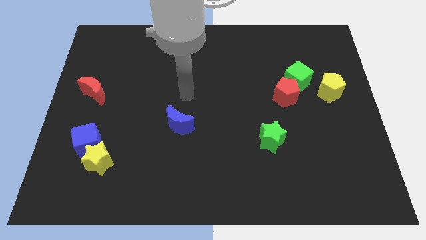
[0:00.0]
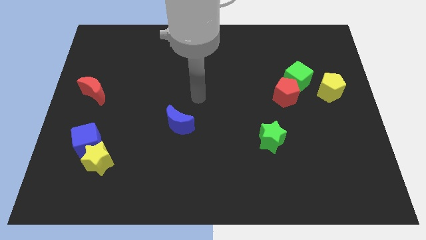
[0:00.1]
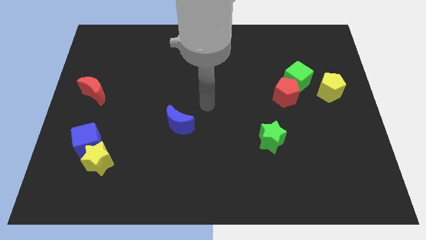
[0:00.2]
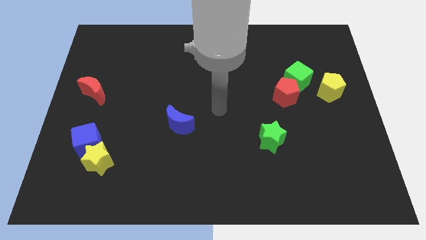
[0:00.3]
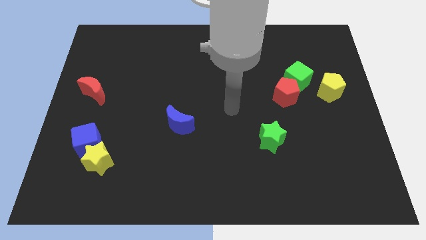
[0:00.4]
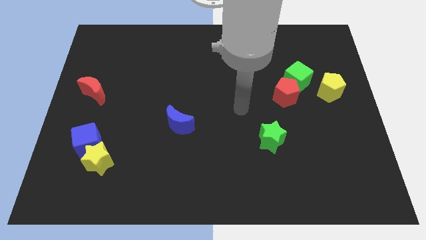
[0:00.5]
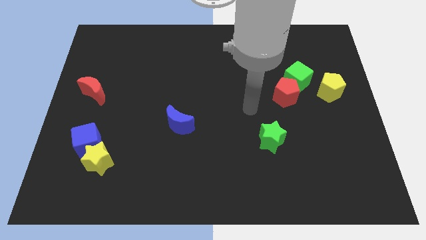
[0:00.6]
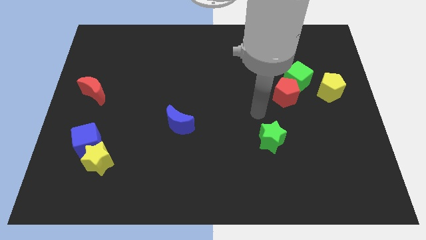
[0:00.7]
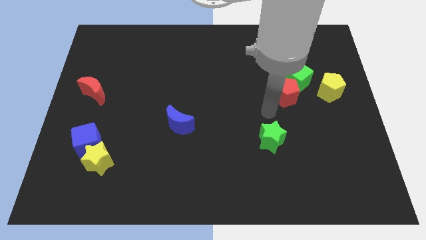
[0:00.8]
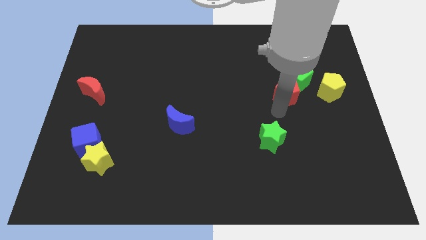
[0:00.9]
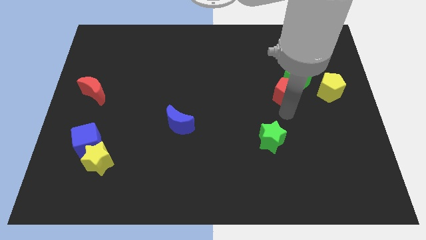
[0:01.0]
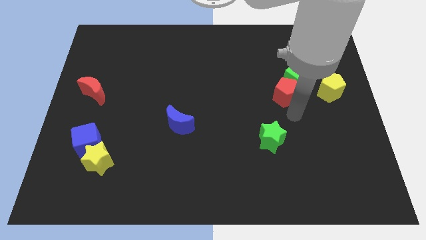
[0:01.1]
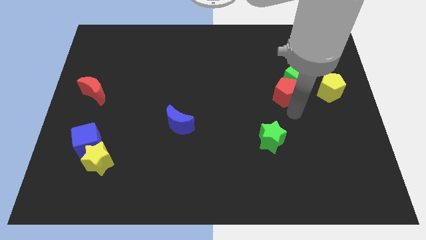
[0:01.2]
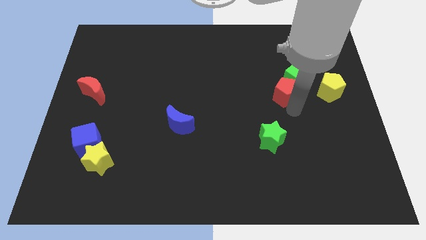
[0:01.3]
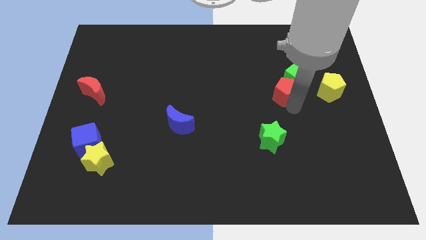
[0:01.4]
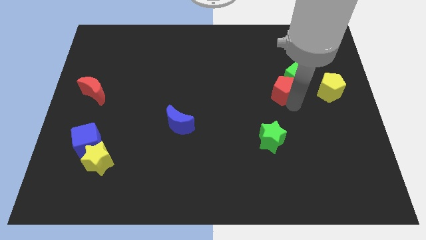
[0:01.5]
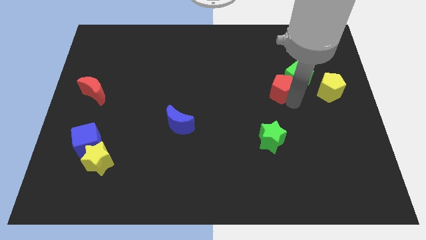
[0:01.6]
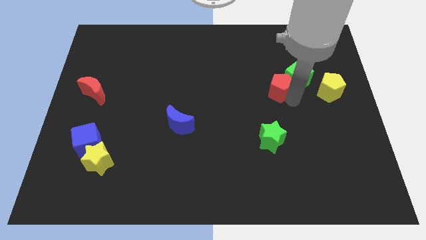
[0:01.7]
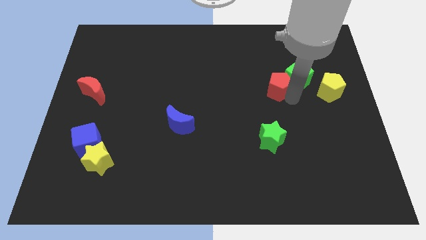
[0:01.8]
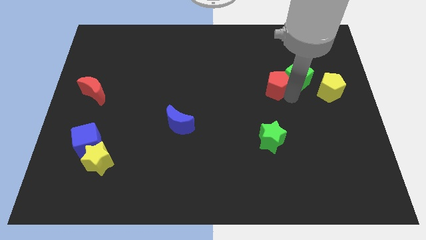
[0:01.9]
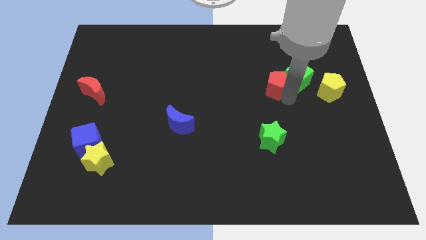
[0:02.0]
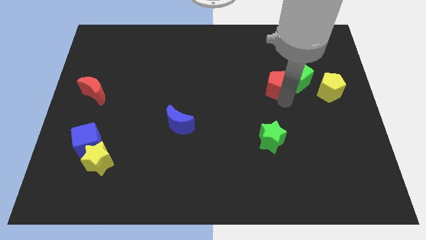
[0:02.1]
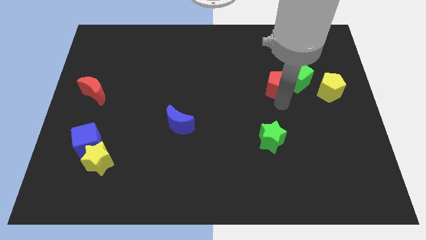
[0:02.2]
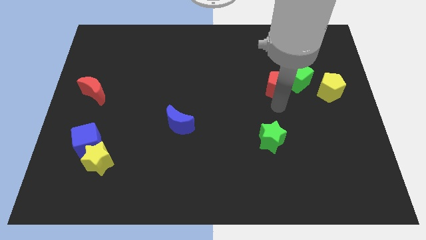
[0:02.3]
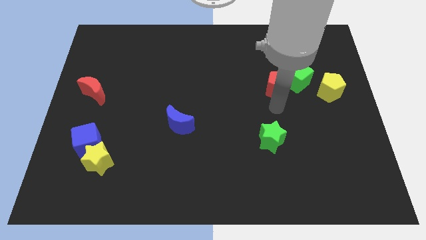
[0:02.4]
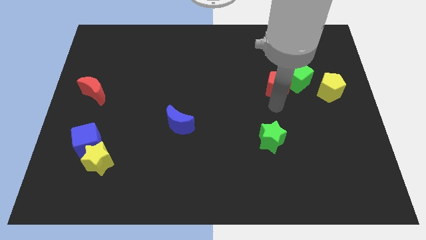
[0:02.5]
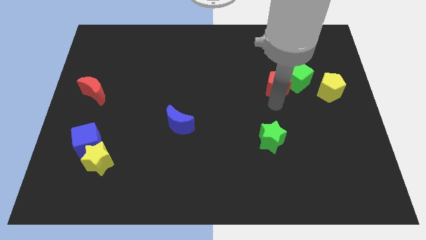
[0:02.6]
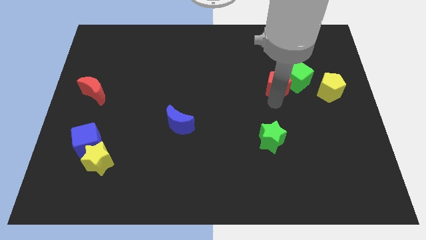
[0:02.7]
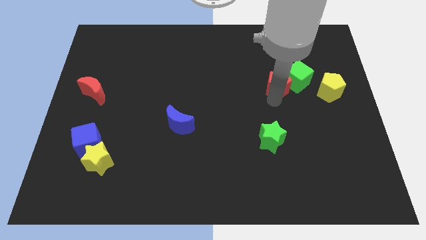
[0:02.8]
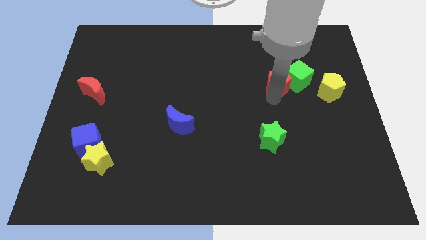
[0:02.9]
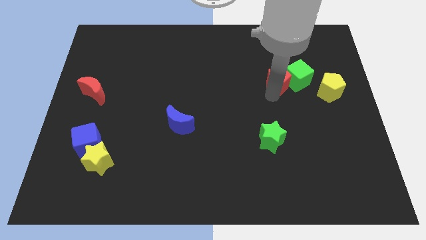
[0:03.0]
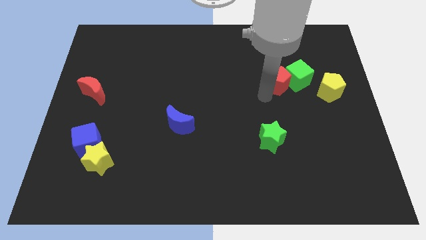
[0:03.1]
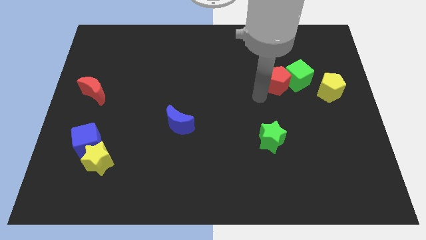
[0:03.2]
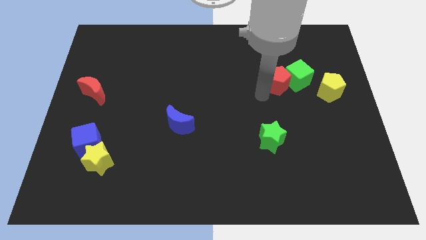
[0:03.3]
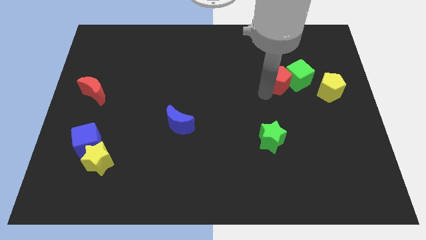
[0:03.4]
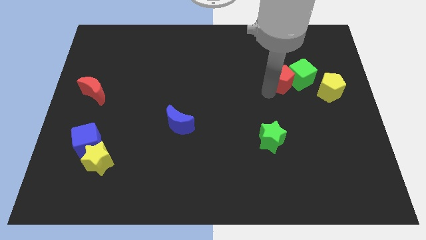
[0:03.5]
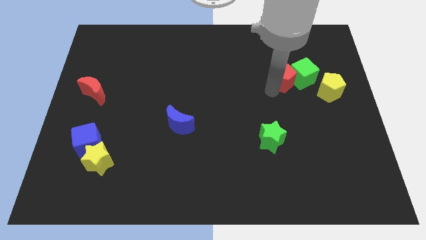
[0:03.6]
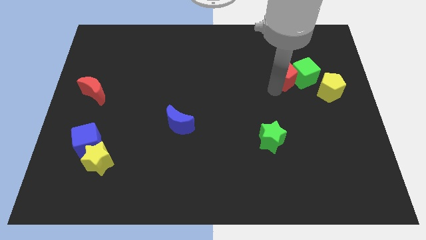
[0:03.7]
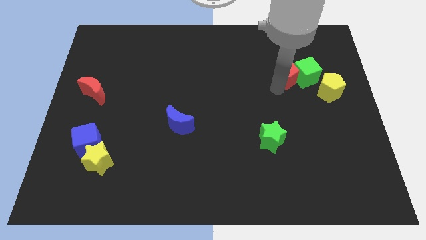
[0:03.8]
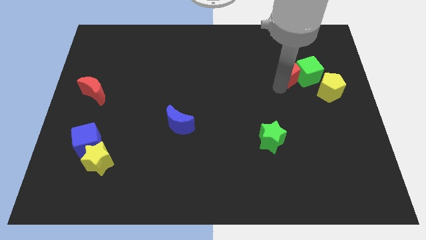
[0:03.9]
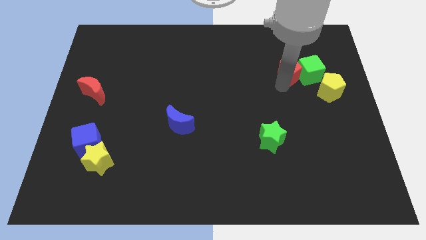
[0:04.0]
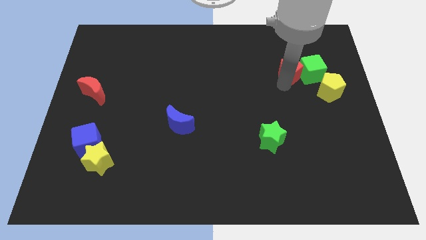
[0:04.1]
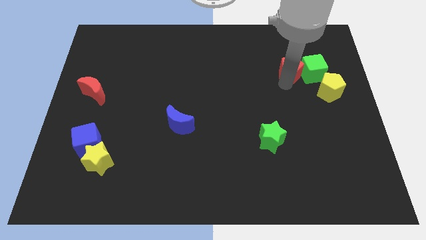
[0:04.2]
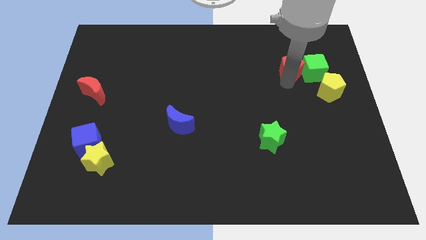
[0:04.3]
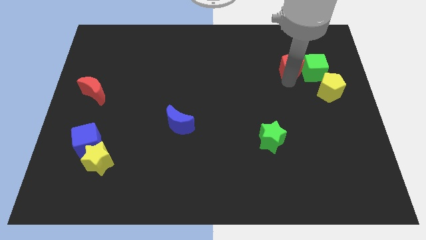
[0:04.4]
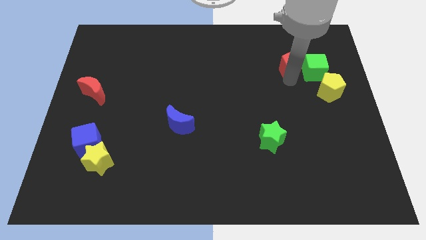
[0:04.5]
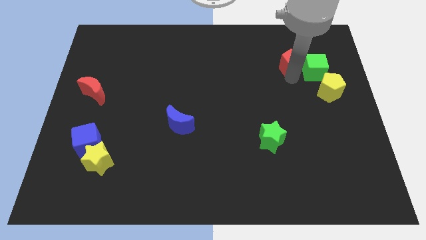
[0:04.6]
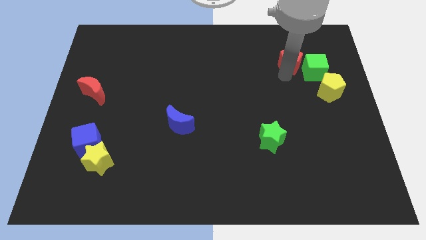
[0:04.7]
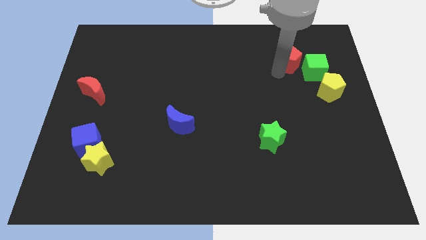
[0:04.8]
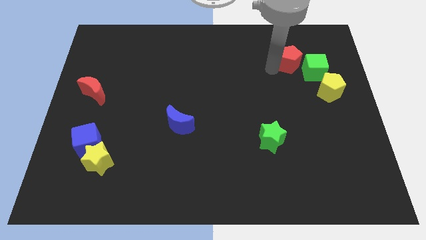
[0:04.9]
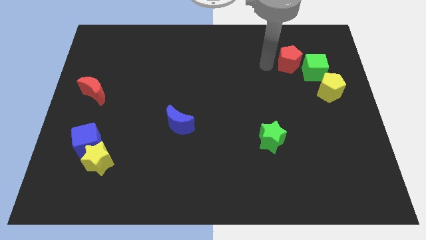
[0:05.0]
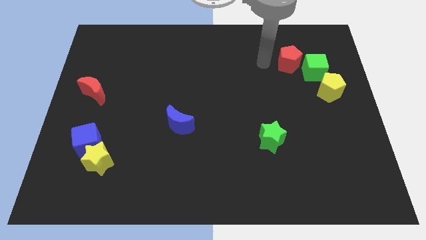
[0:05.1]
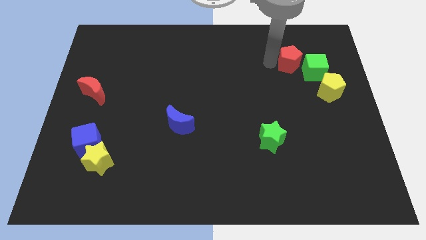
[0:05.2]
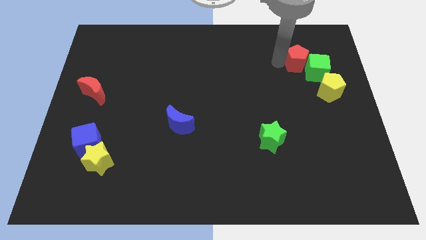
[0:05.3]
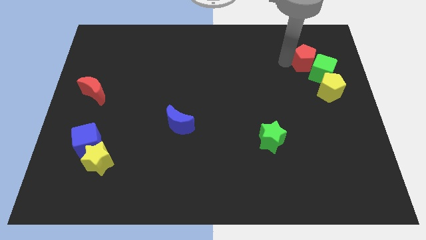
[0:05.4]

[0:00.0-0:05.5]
slide the red pentagon above the yellow pentagon

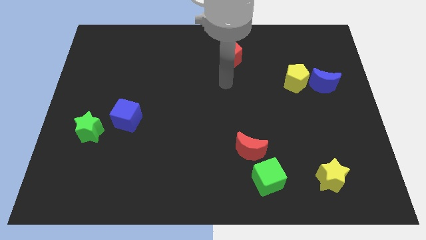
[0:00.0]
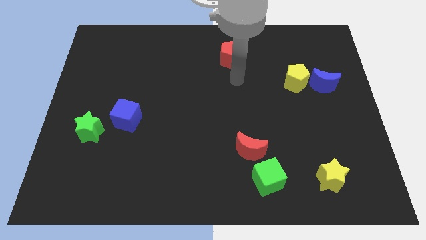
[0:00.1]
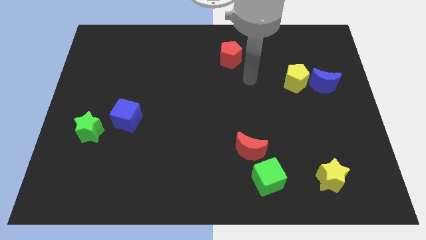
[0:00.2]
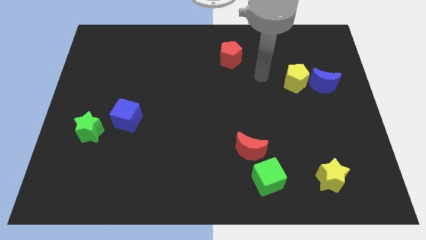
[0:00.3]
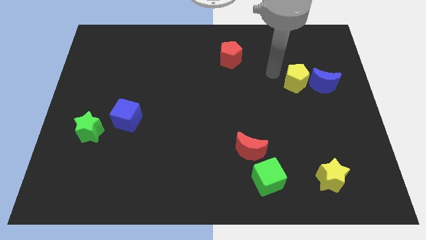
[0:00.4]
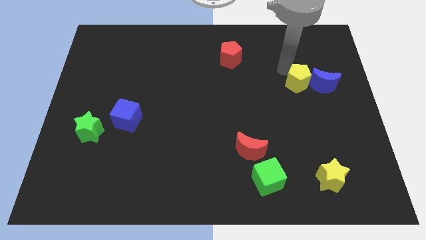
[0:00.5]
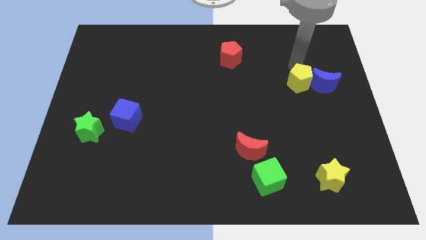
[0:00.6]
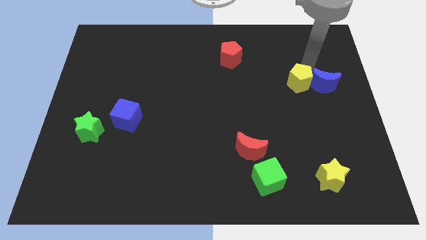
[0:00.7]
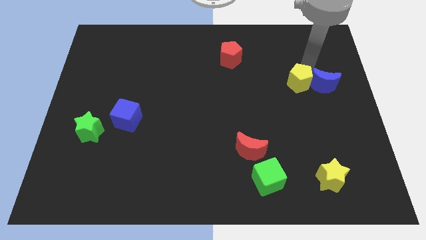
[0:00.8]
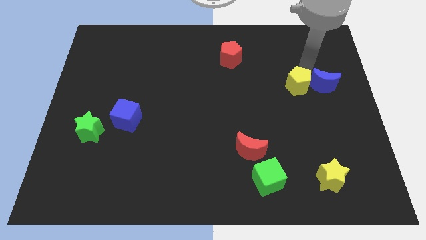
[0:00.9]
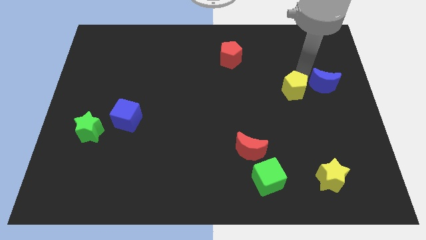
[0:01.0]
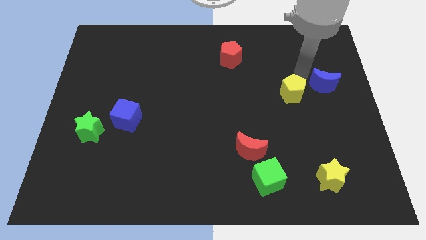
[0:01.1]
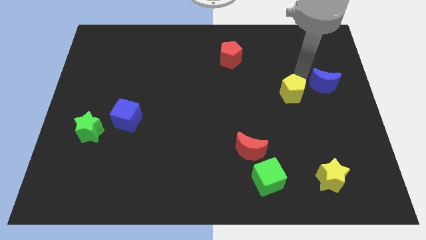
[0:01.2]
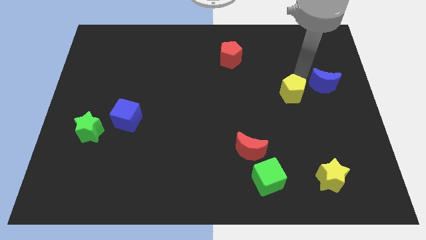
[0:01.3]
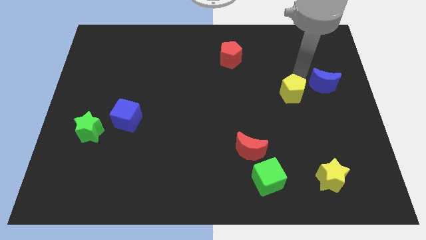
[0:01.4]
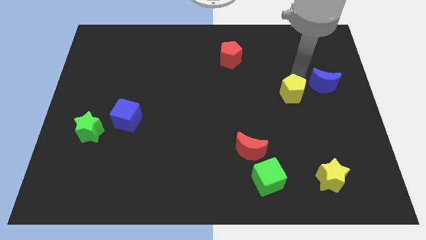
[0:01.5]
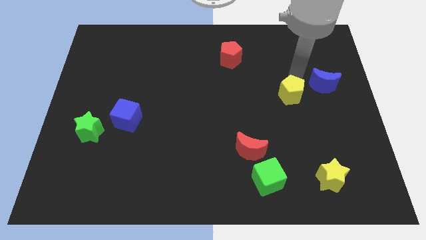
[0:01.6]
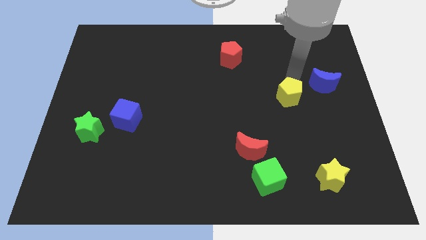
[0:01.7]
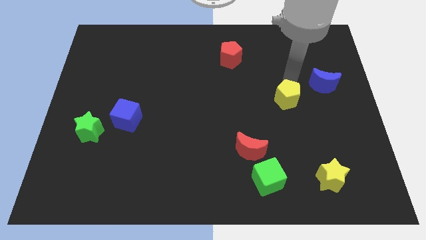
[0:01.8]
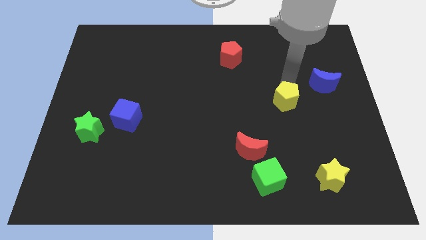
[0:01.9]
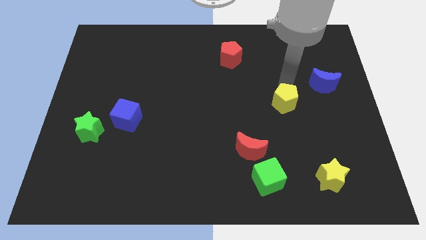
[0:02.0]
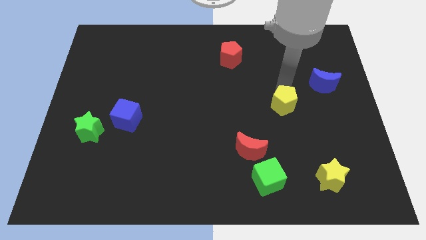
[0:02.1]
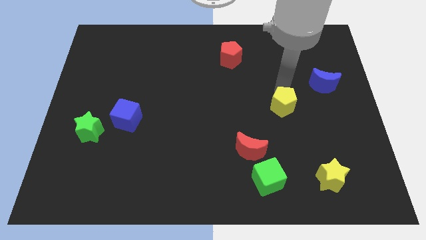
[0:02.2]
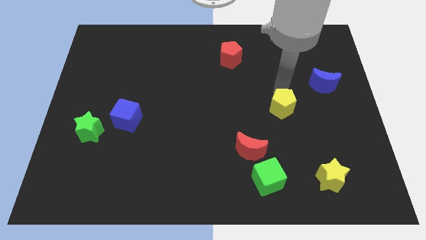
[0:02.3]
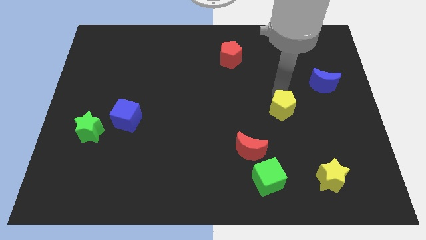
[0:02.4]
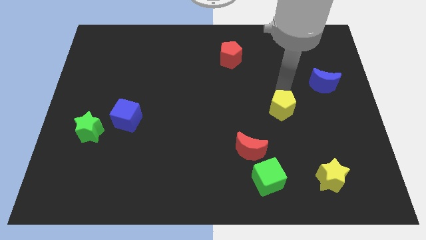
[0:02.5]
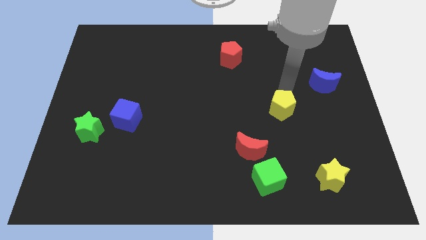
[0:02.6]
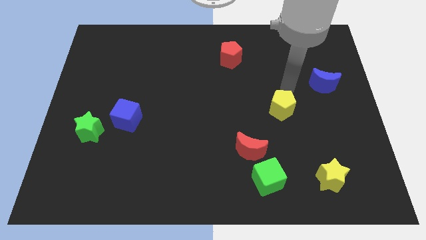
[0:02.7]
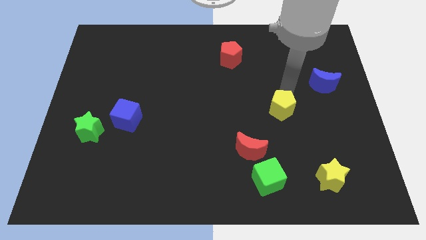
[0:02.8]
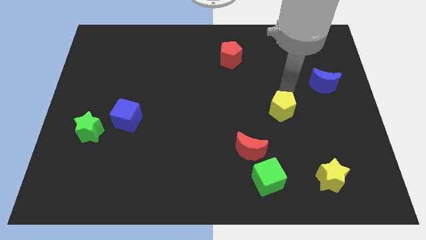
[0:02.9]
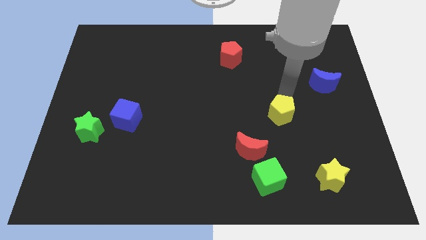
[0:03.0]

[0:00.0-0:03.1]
slide the yellow pentagon diagonally up and to the right of the red moon
